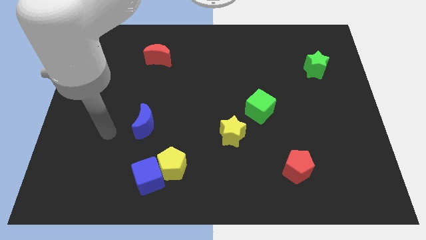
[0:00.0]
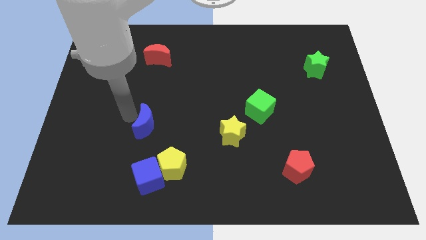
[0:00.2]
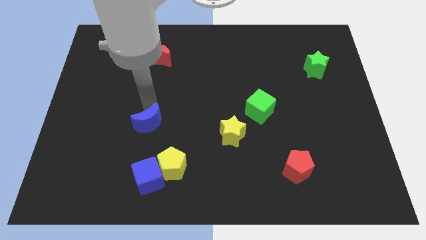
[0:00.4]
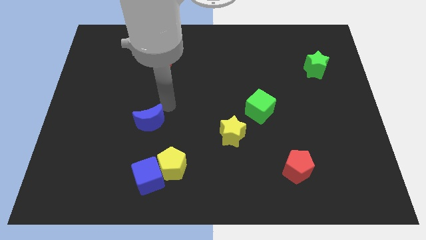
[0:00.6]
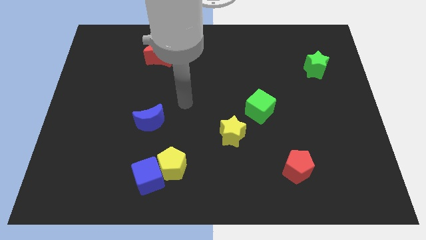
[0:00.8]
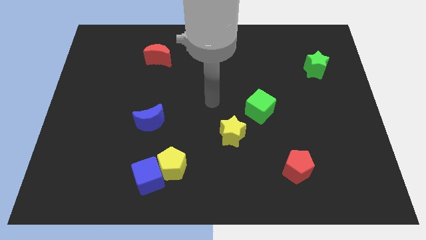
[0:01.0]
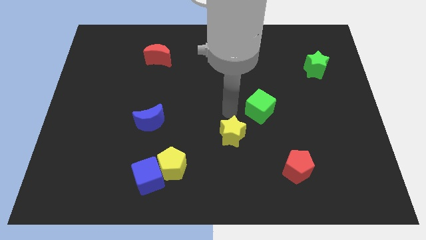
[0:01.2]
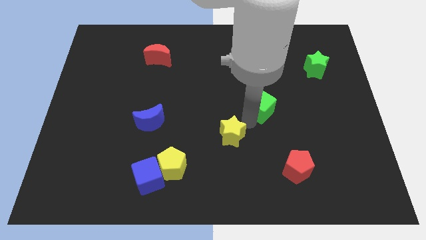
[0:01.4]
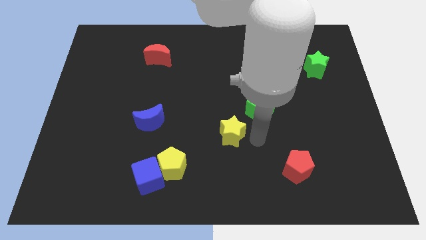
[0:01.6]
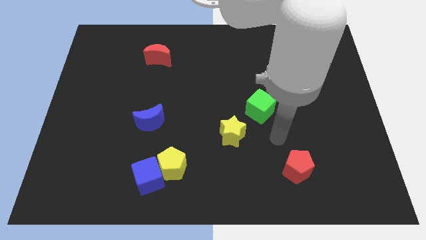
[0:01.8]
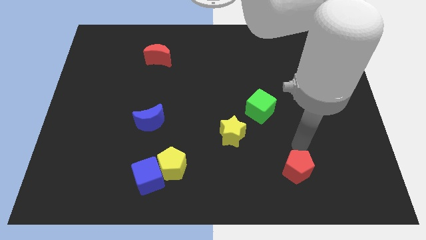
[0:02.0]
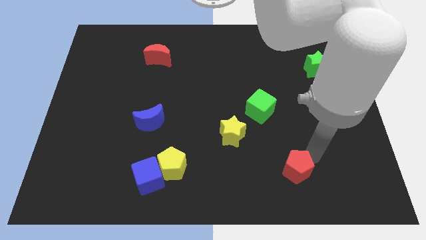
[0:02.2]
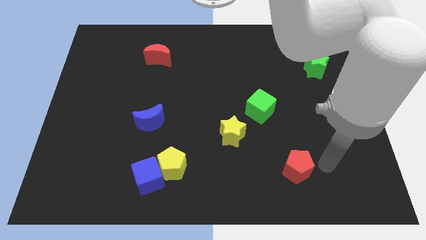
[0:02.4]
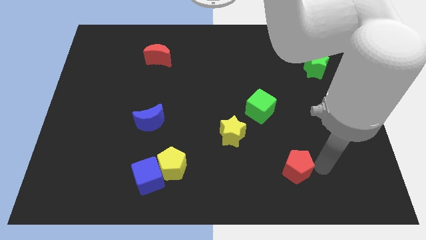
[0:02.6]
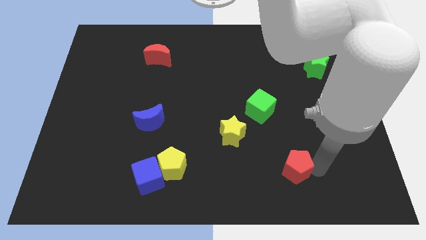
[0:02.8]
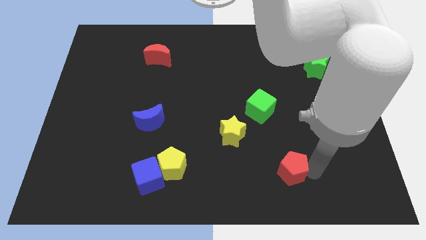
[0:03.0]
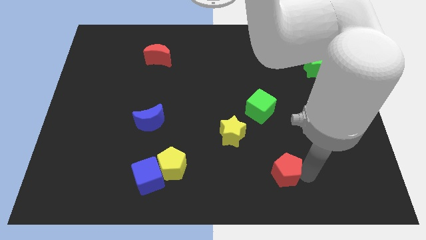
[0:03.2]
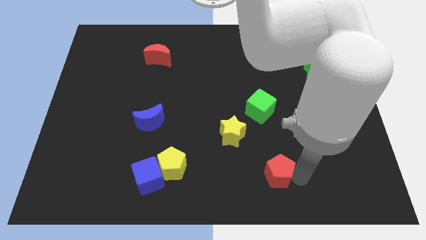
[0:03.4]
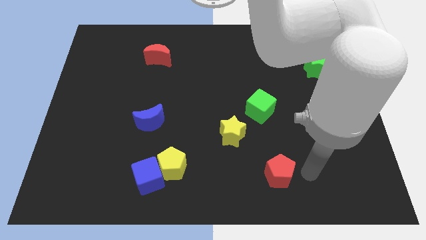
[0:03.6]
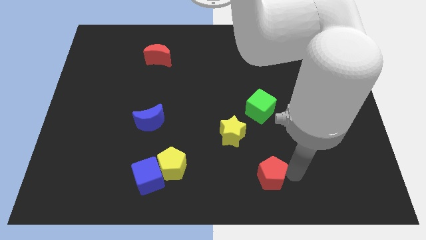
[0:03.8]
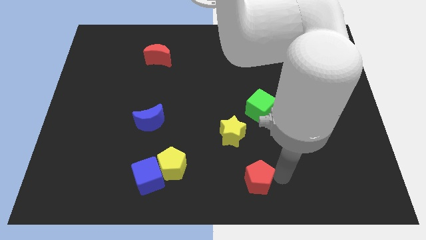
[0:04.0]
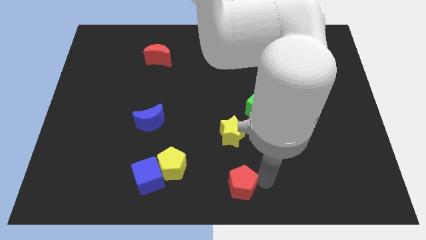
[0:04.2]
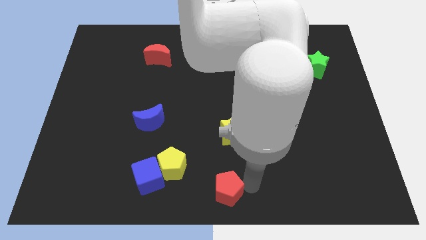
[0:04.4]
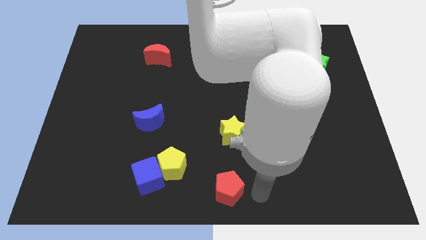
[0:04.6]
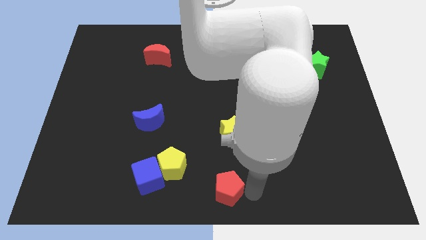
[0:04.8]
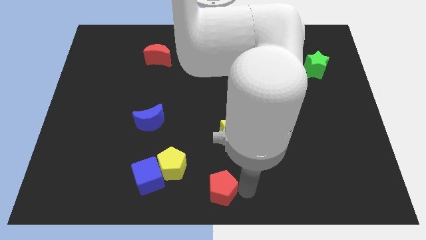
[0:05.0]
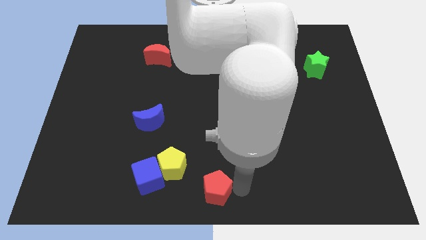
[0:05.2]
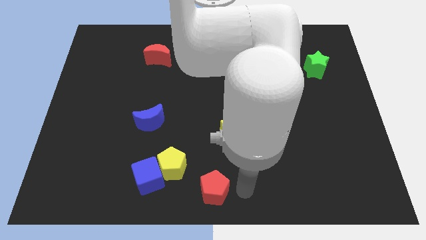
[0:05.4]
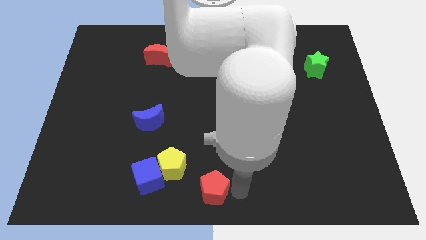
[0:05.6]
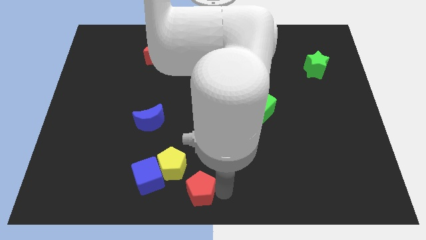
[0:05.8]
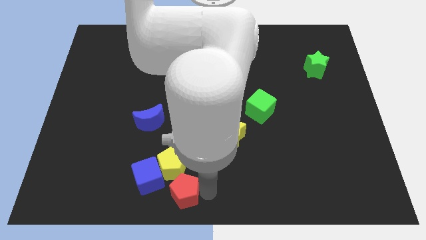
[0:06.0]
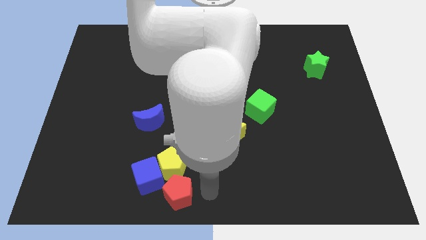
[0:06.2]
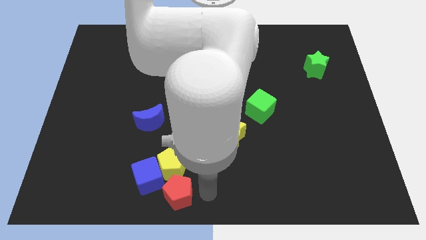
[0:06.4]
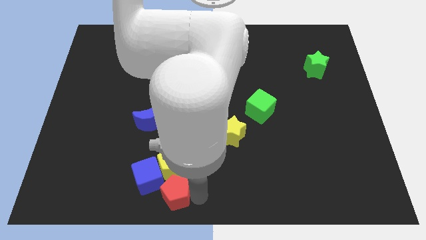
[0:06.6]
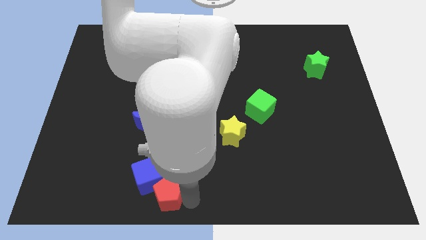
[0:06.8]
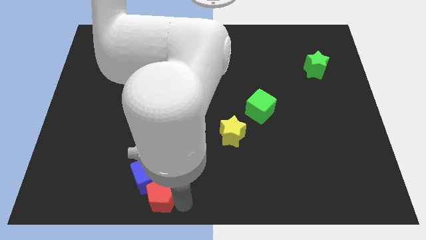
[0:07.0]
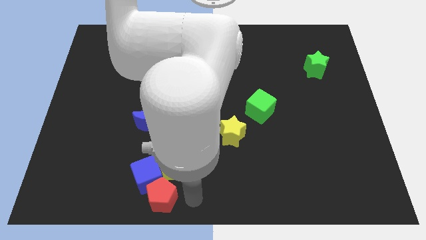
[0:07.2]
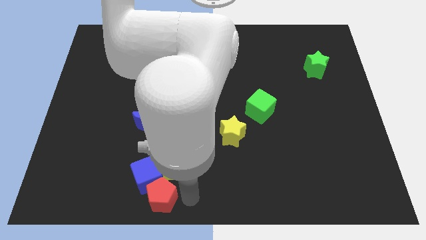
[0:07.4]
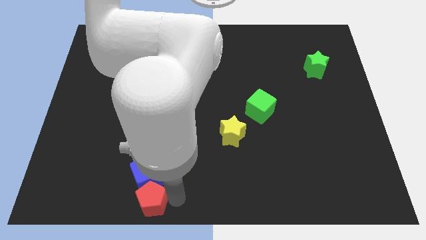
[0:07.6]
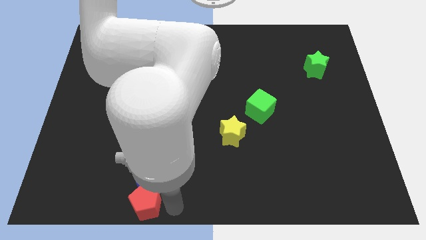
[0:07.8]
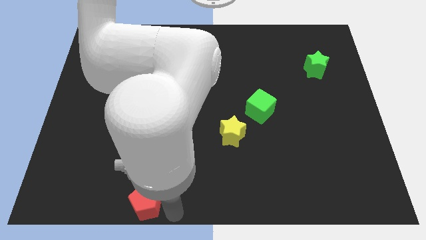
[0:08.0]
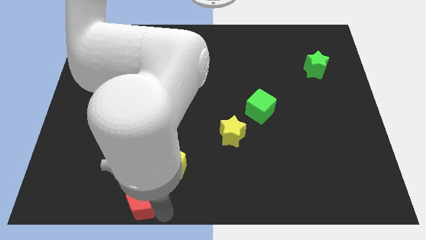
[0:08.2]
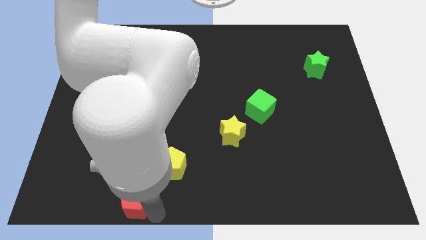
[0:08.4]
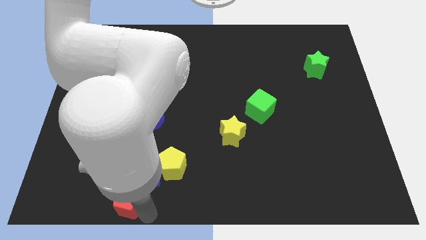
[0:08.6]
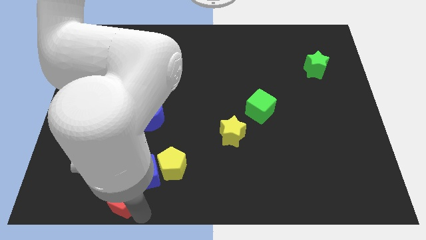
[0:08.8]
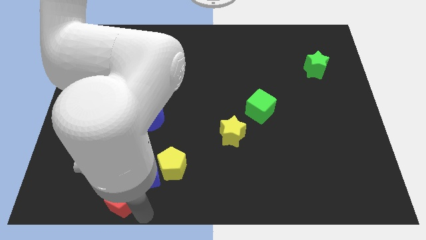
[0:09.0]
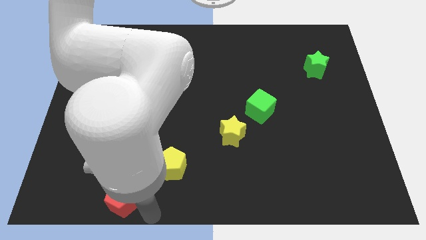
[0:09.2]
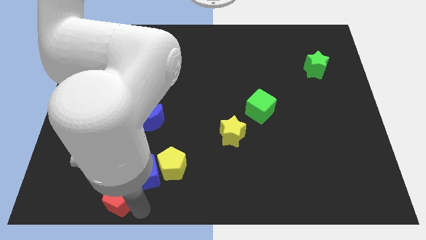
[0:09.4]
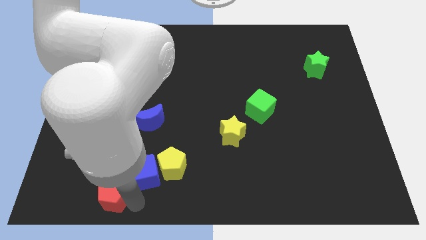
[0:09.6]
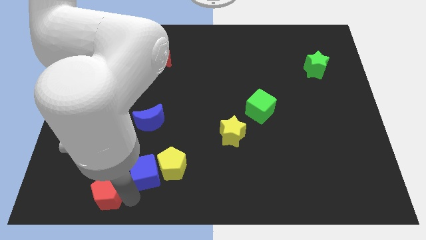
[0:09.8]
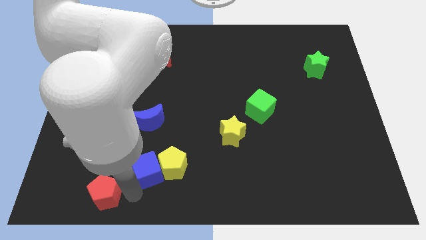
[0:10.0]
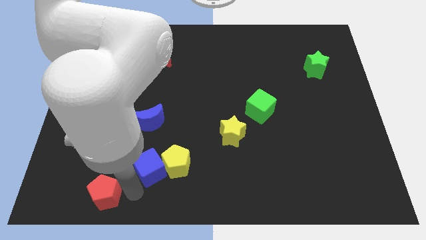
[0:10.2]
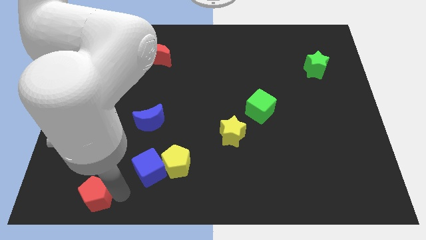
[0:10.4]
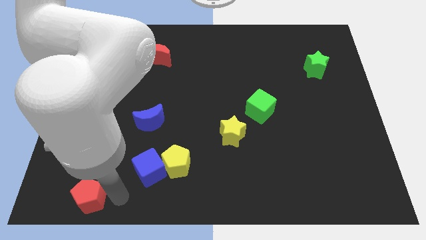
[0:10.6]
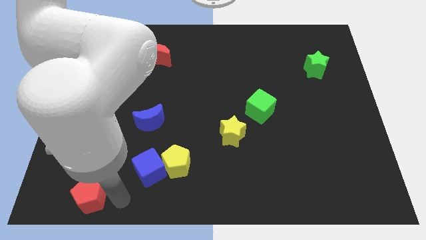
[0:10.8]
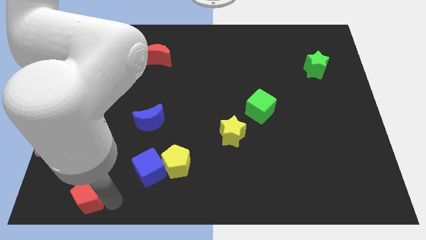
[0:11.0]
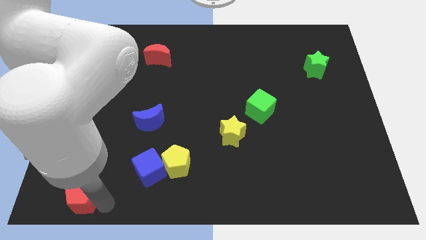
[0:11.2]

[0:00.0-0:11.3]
move the red pentagon to the bottom left of the board

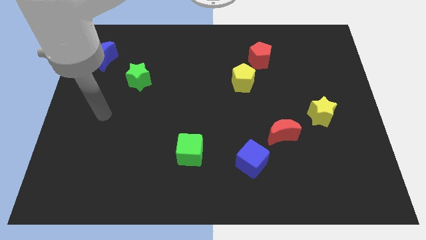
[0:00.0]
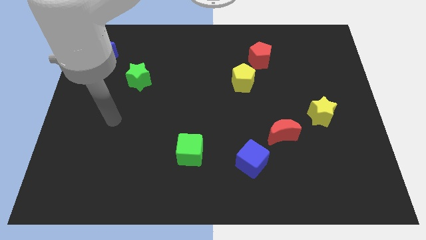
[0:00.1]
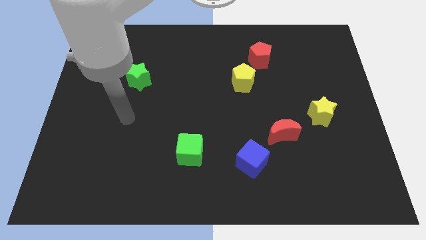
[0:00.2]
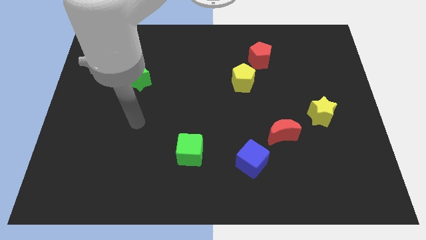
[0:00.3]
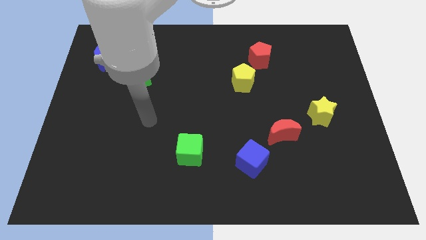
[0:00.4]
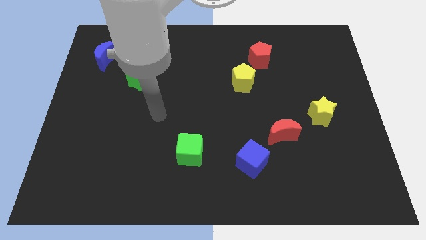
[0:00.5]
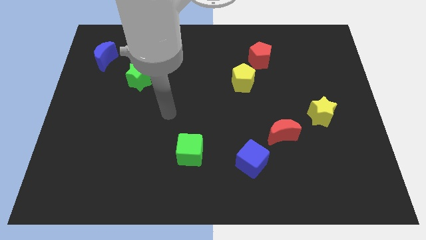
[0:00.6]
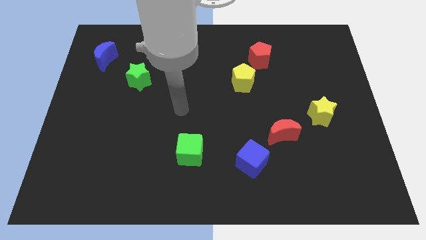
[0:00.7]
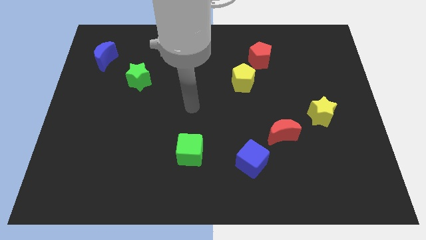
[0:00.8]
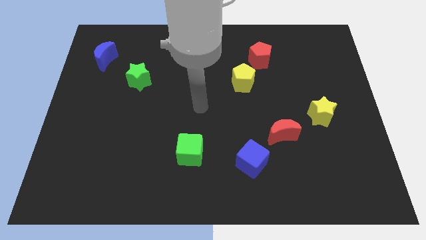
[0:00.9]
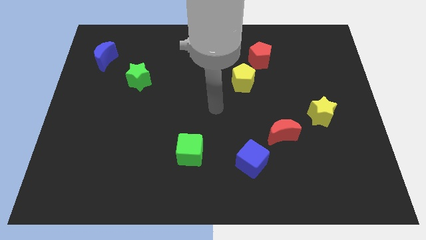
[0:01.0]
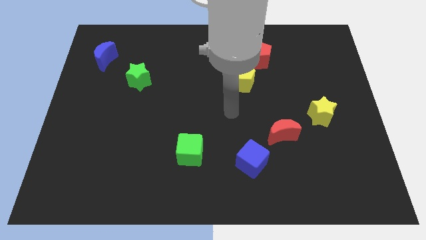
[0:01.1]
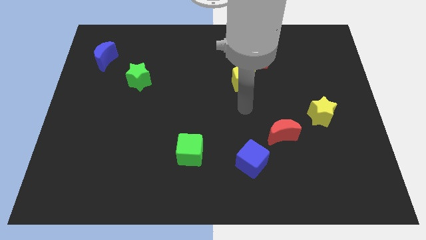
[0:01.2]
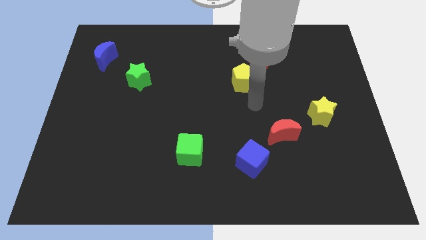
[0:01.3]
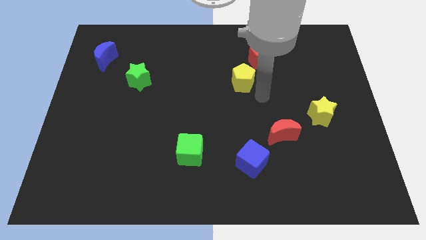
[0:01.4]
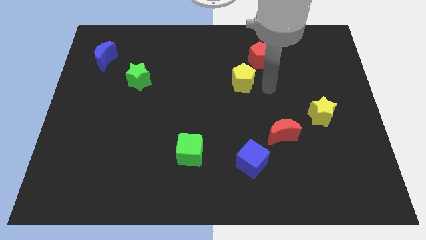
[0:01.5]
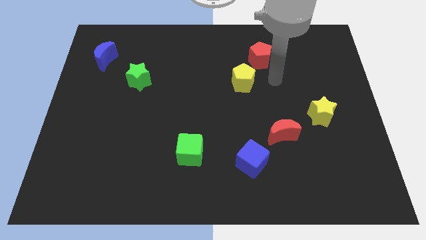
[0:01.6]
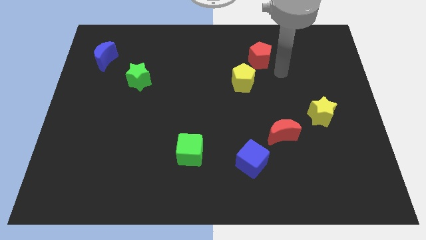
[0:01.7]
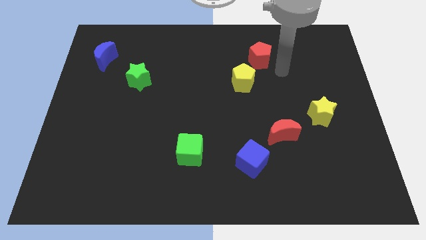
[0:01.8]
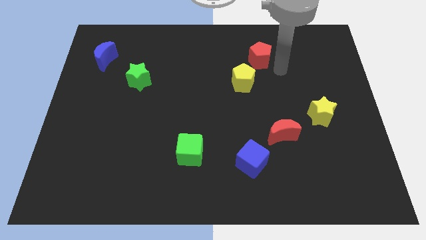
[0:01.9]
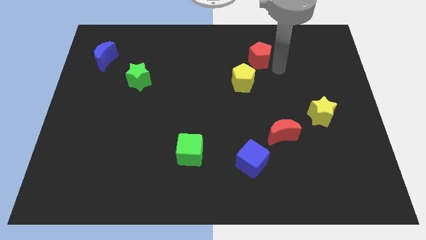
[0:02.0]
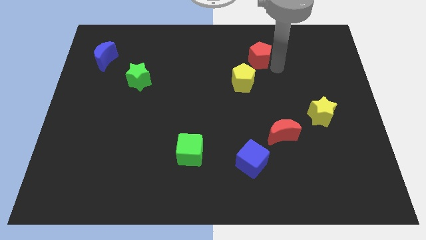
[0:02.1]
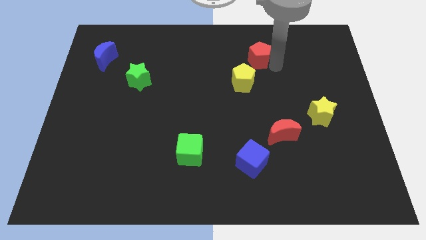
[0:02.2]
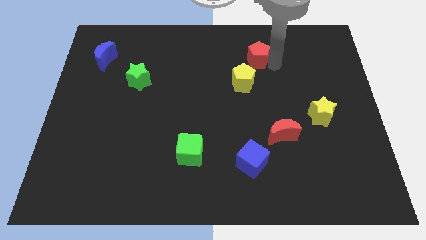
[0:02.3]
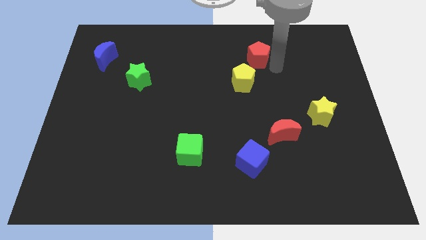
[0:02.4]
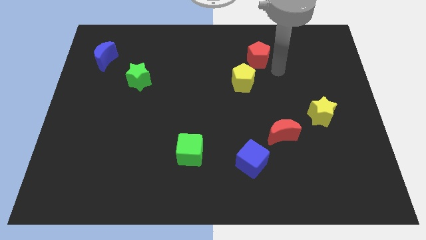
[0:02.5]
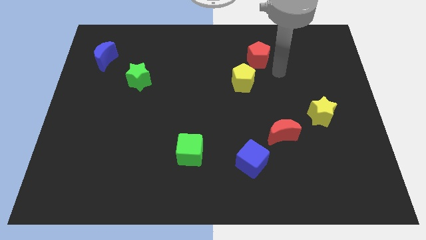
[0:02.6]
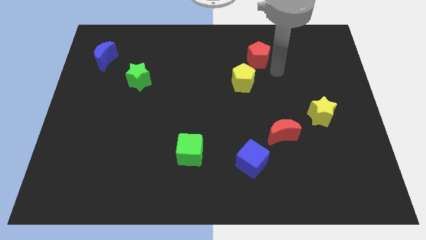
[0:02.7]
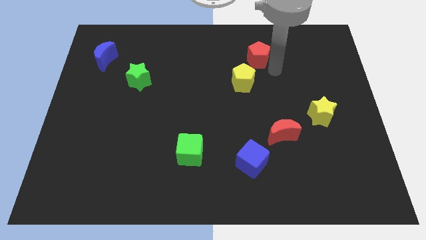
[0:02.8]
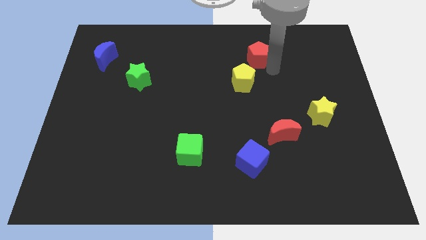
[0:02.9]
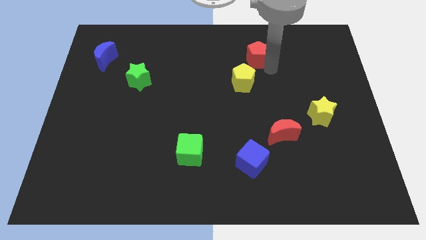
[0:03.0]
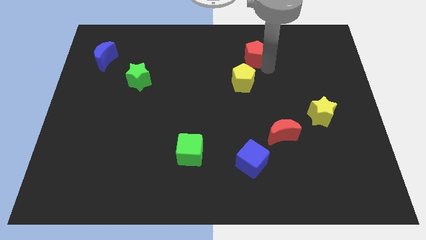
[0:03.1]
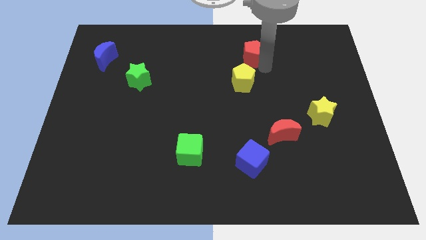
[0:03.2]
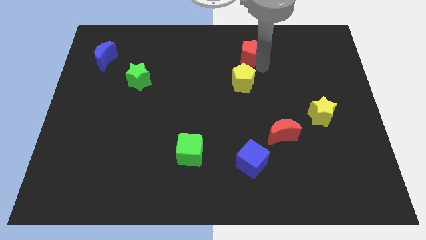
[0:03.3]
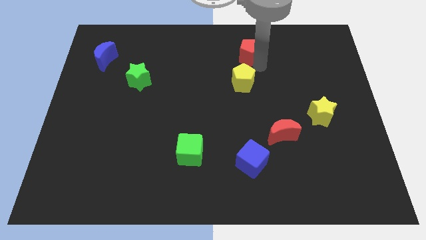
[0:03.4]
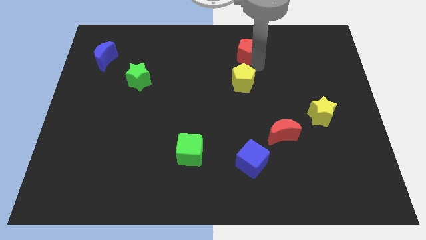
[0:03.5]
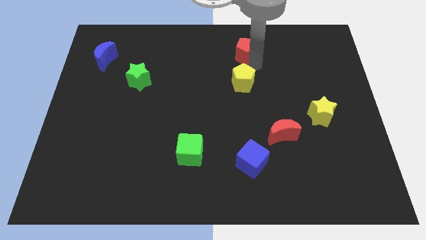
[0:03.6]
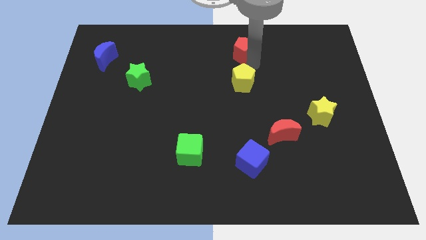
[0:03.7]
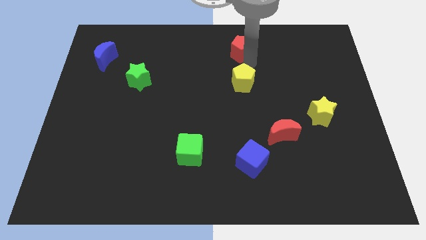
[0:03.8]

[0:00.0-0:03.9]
move the red pentagon to the towards your base
